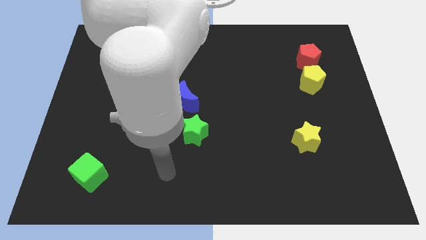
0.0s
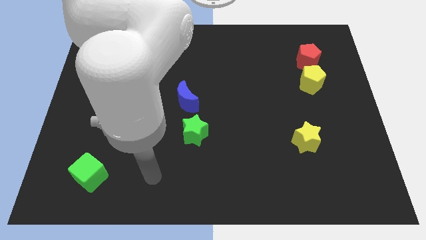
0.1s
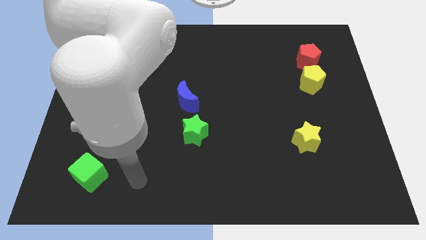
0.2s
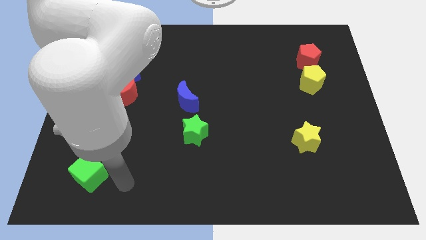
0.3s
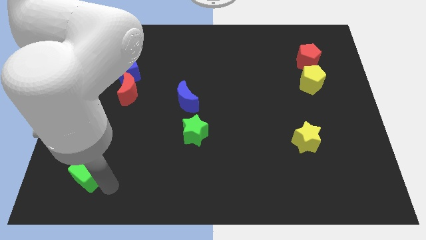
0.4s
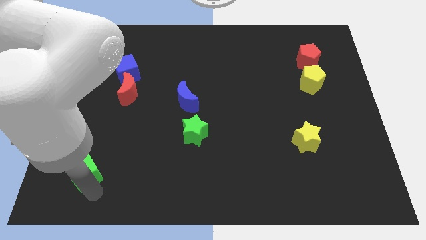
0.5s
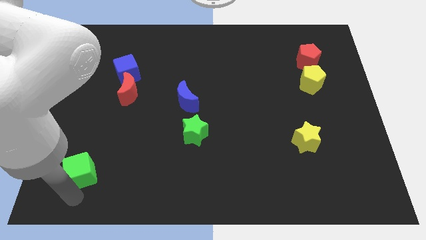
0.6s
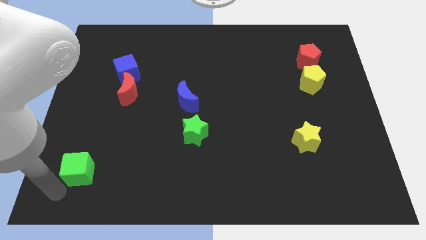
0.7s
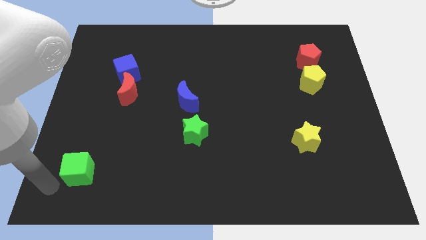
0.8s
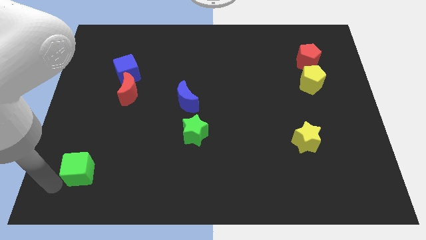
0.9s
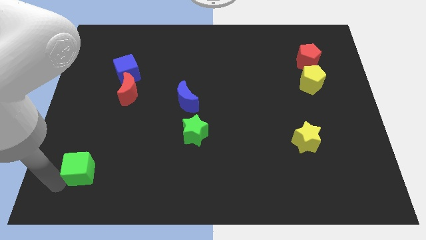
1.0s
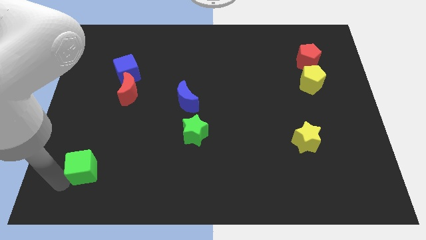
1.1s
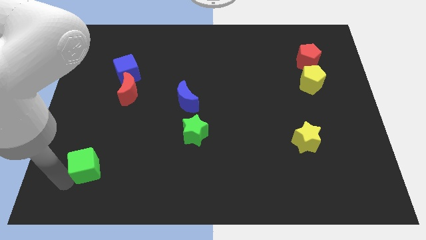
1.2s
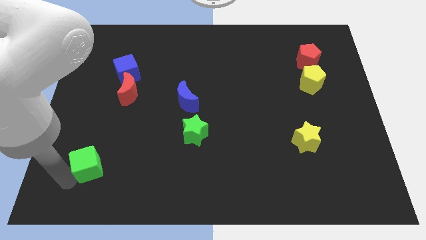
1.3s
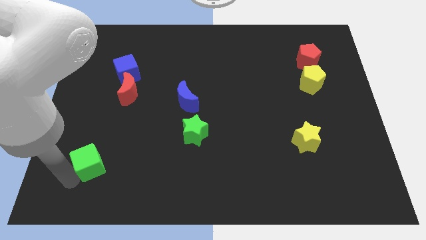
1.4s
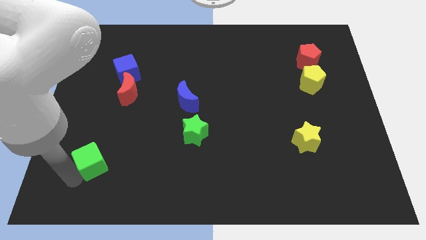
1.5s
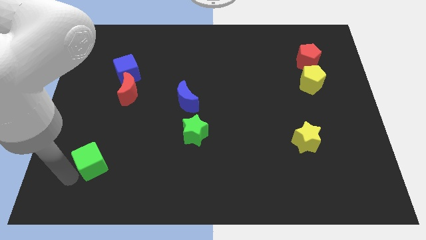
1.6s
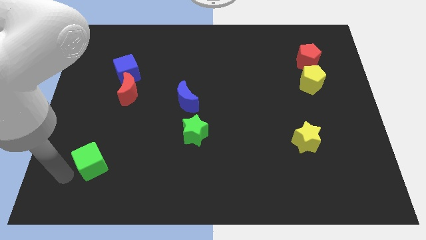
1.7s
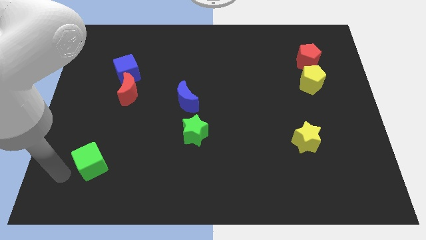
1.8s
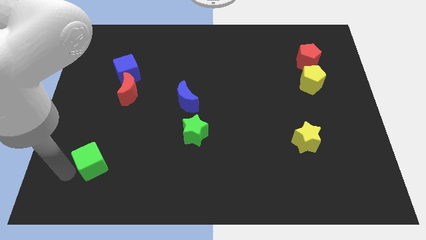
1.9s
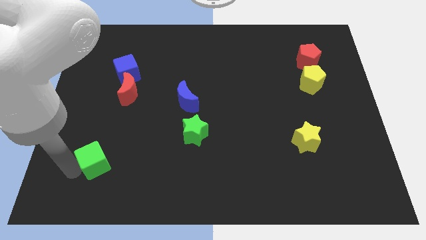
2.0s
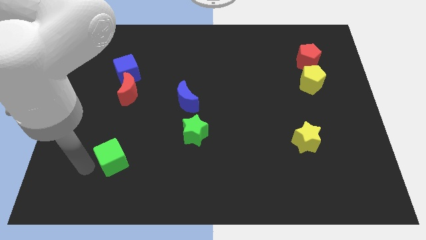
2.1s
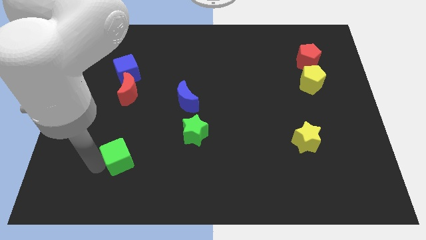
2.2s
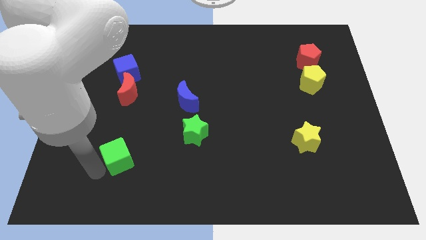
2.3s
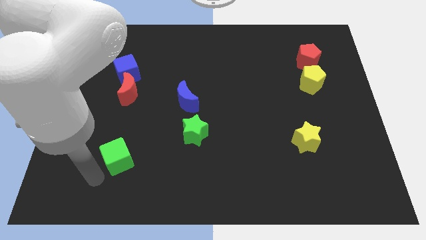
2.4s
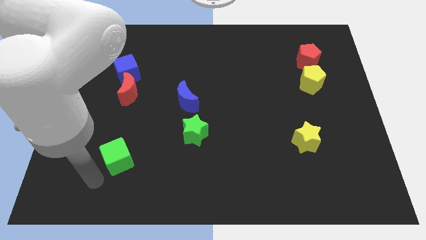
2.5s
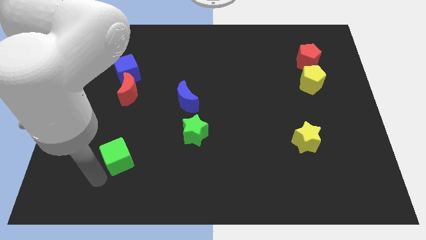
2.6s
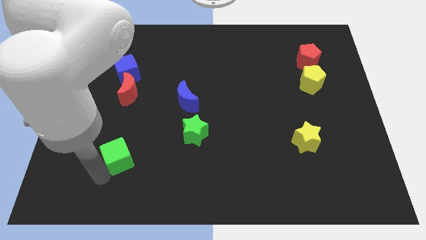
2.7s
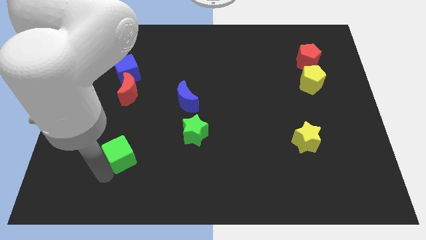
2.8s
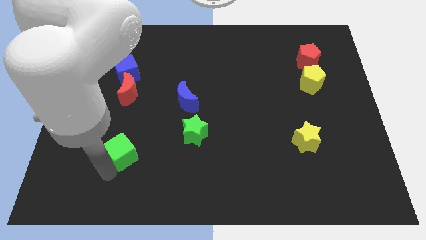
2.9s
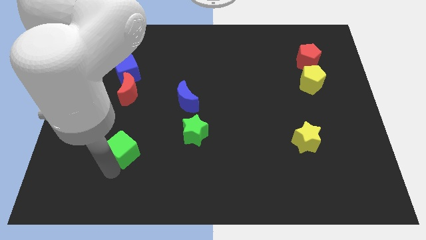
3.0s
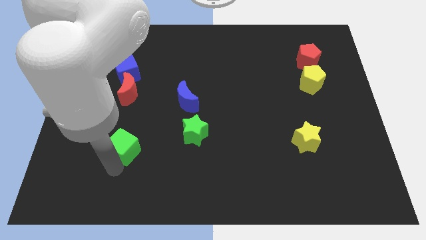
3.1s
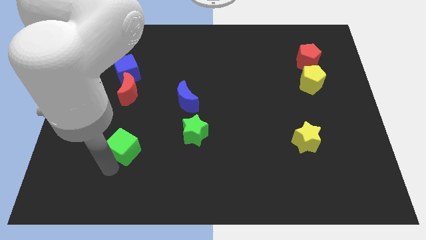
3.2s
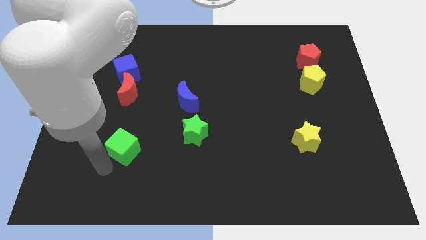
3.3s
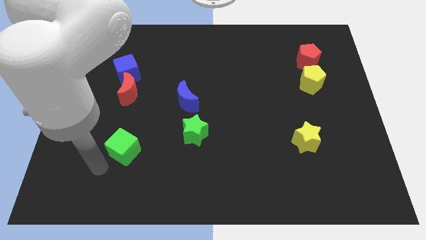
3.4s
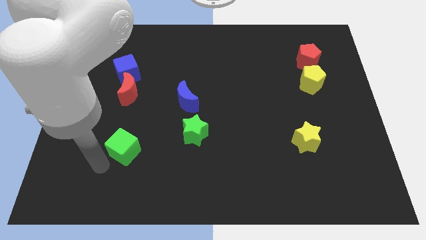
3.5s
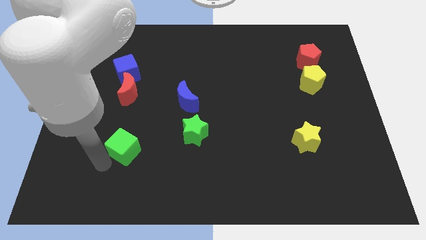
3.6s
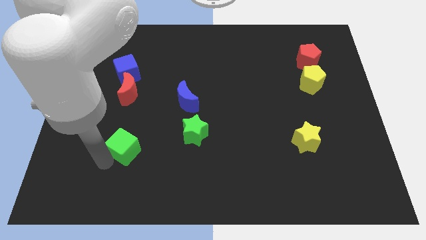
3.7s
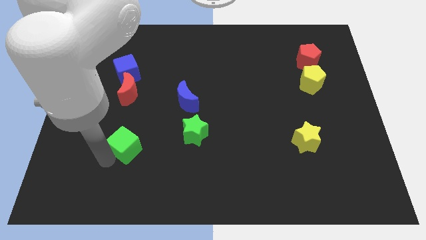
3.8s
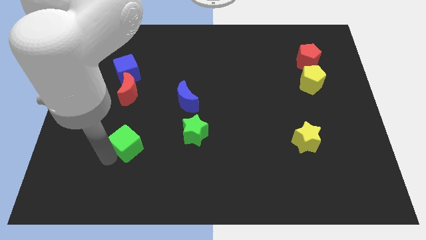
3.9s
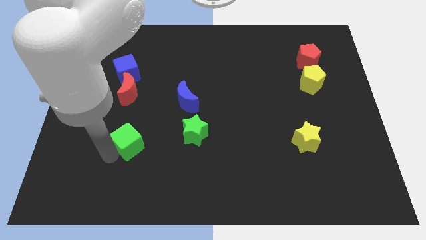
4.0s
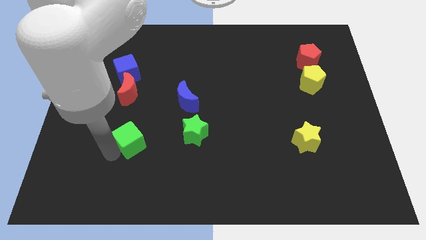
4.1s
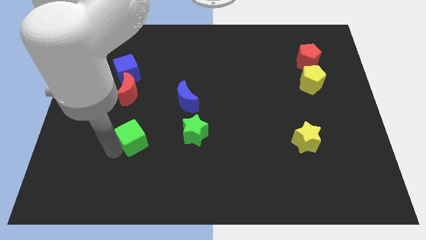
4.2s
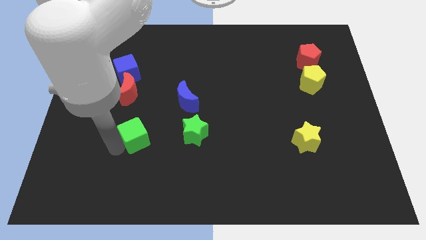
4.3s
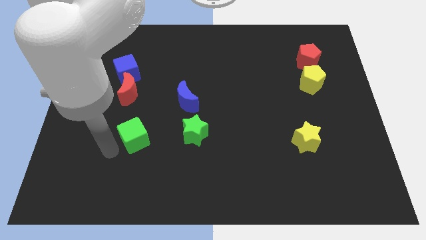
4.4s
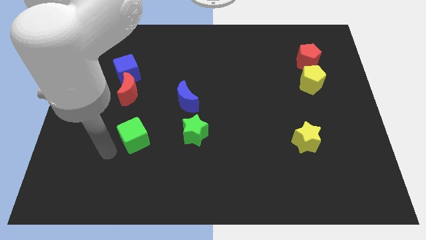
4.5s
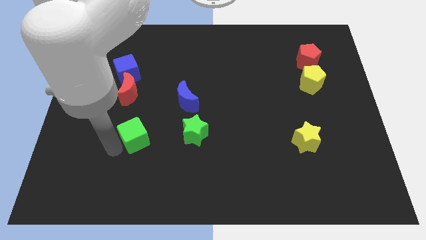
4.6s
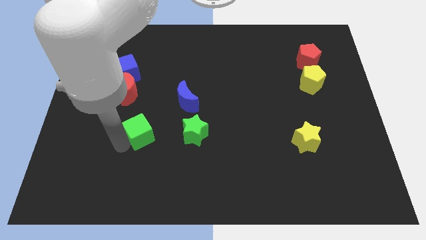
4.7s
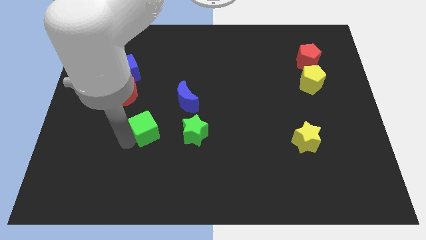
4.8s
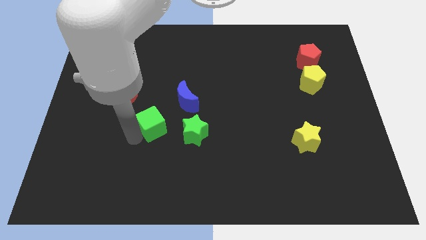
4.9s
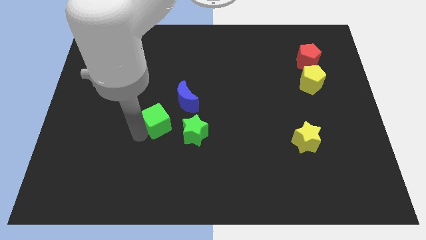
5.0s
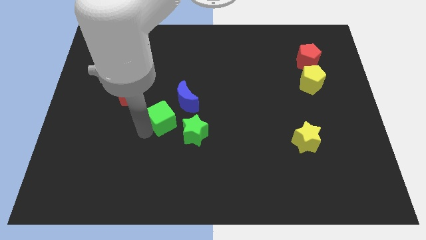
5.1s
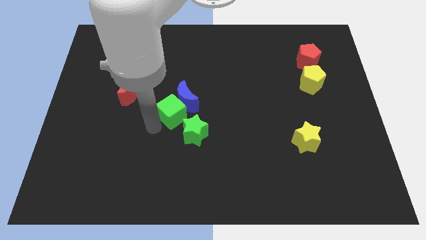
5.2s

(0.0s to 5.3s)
move the green cube towards the blue moon

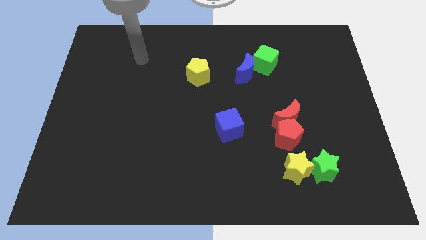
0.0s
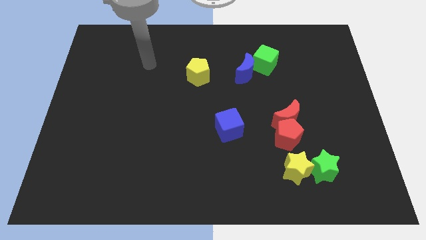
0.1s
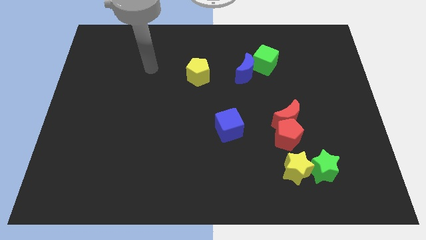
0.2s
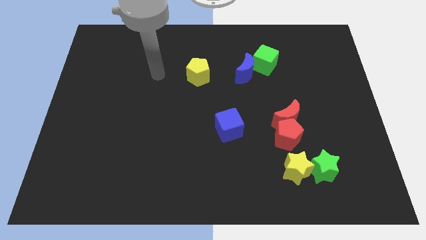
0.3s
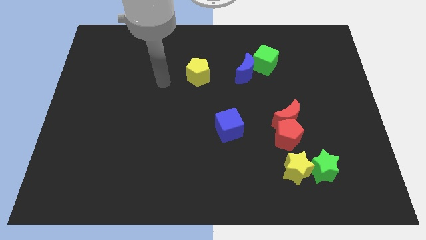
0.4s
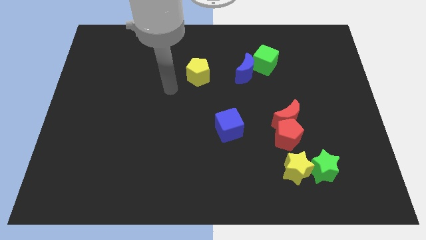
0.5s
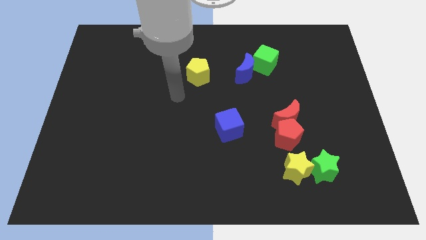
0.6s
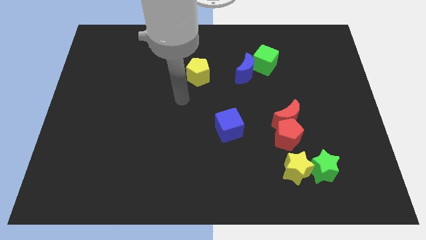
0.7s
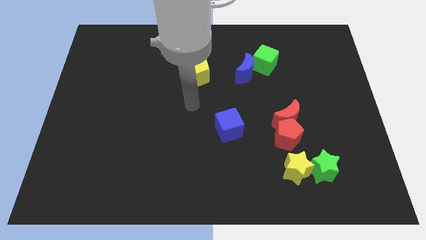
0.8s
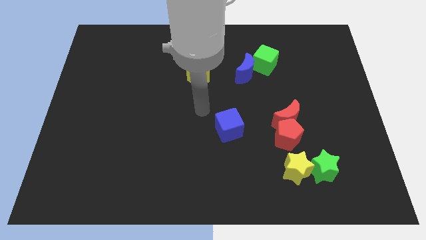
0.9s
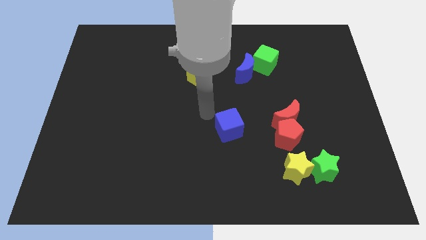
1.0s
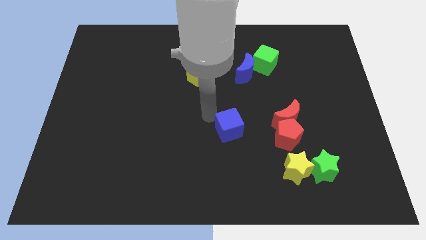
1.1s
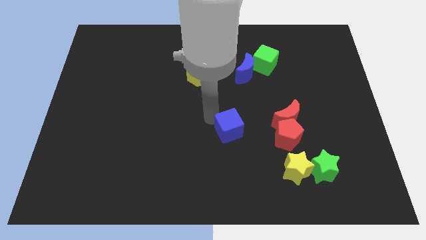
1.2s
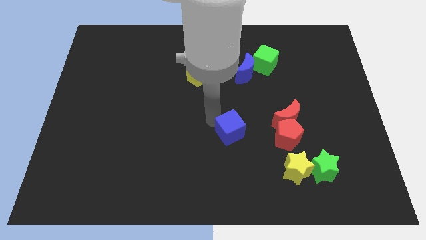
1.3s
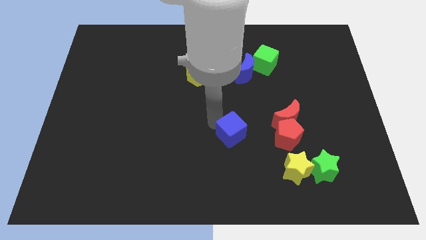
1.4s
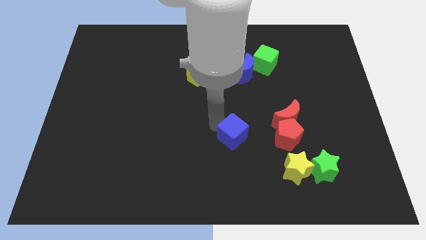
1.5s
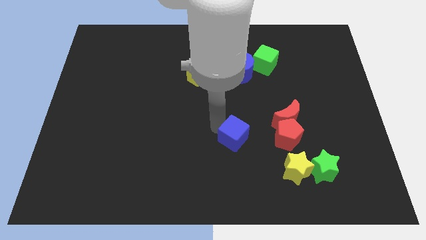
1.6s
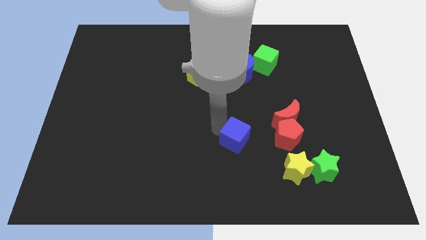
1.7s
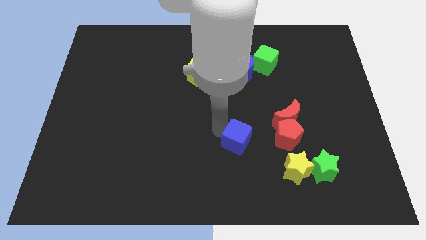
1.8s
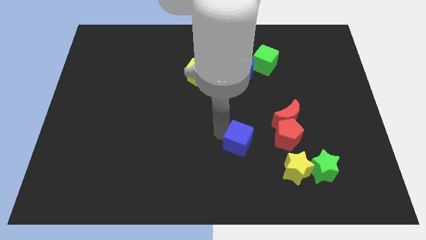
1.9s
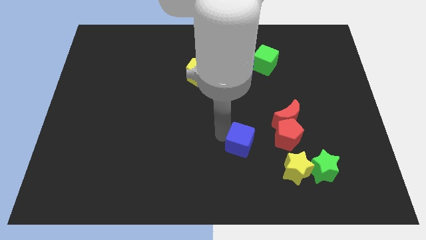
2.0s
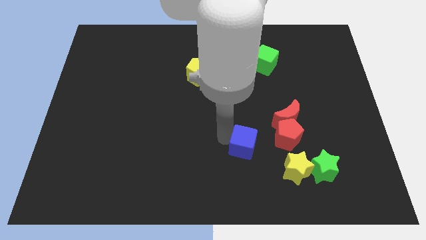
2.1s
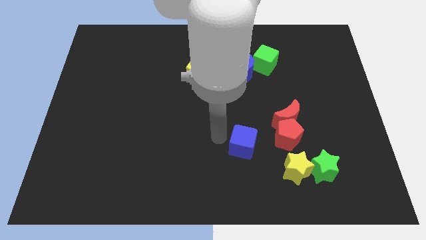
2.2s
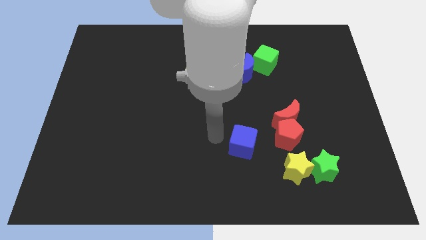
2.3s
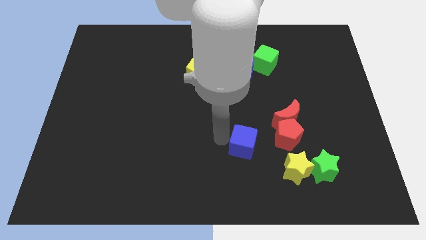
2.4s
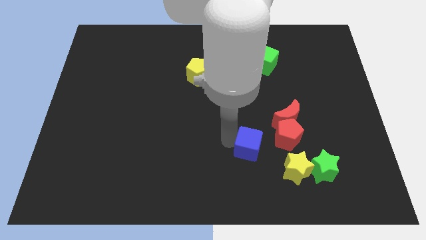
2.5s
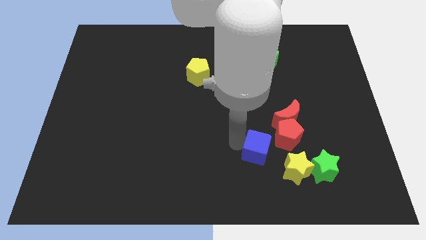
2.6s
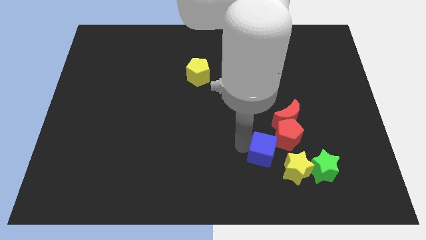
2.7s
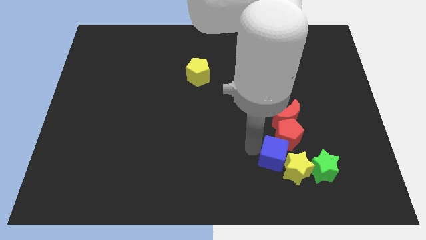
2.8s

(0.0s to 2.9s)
push the blue cube next to the yellow star
